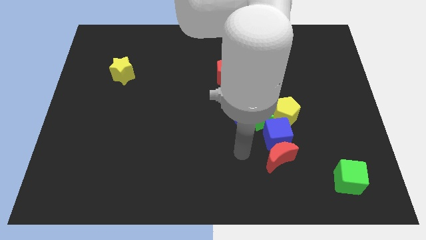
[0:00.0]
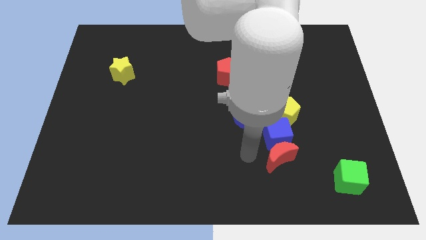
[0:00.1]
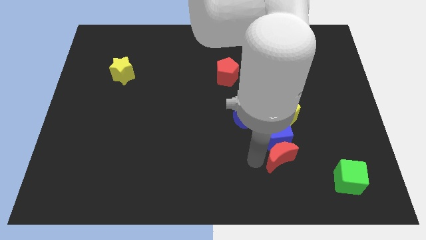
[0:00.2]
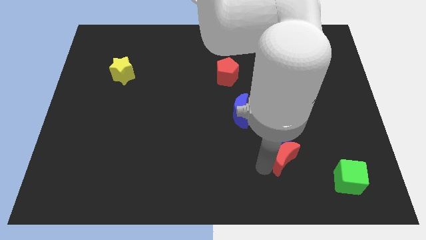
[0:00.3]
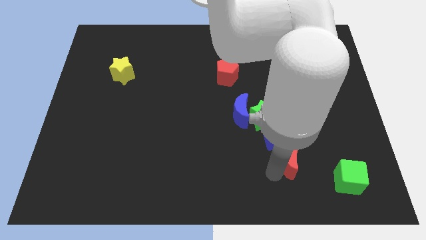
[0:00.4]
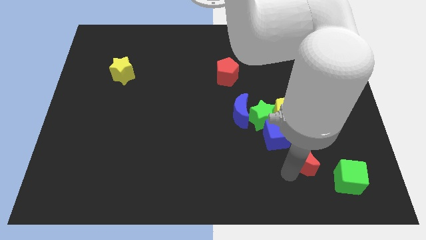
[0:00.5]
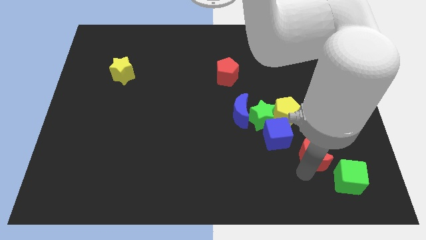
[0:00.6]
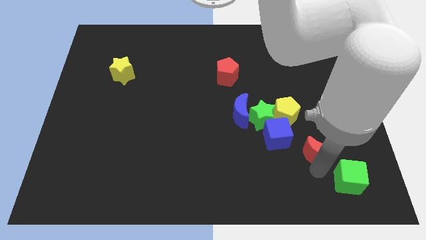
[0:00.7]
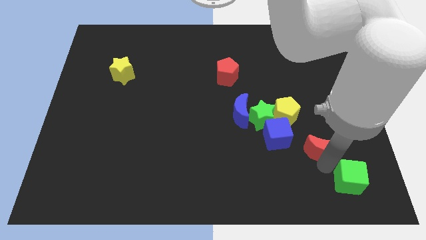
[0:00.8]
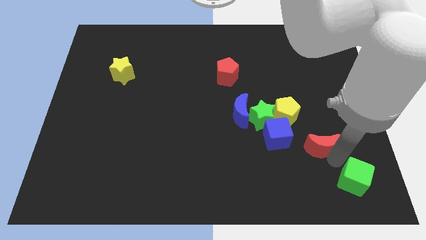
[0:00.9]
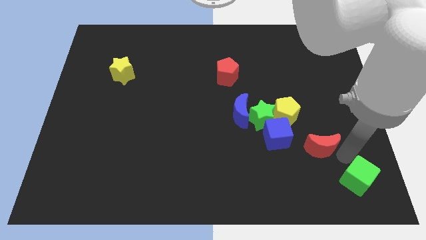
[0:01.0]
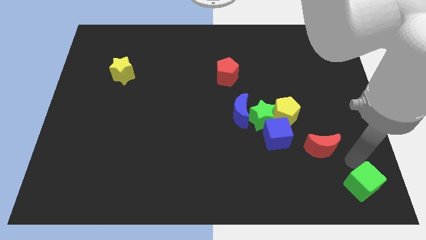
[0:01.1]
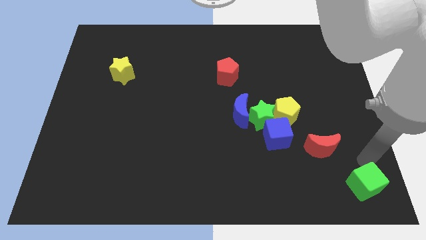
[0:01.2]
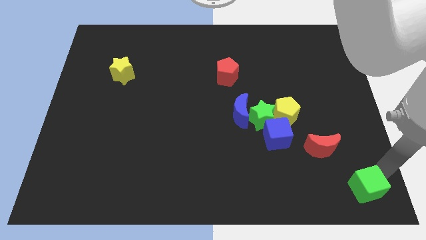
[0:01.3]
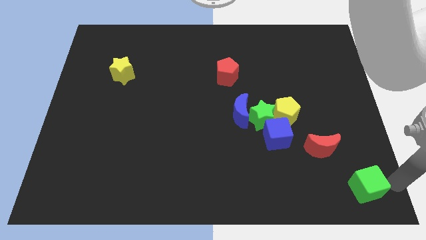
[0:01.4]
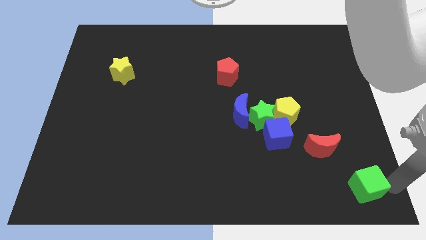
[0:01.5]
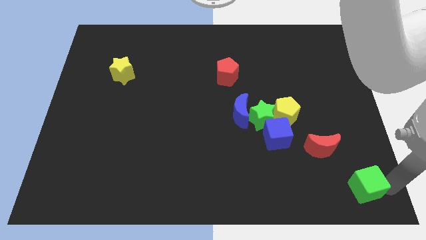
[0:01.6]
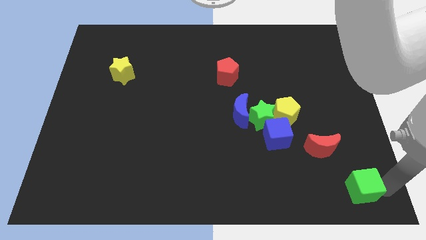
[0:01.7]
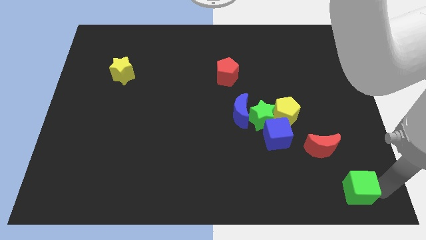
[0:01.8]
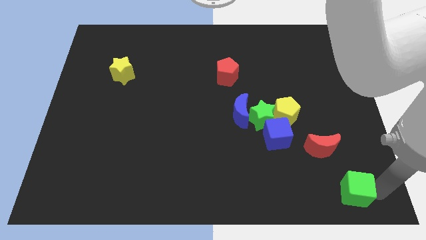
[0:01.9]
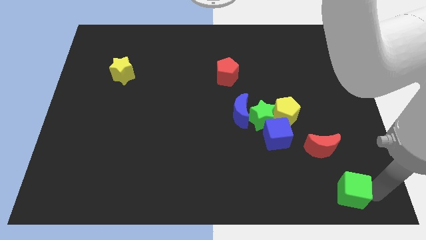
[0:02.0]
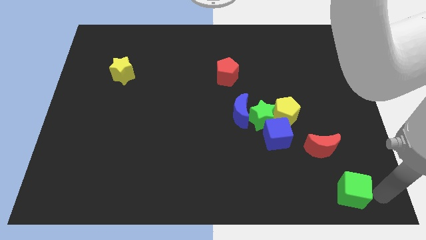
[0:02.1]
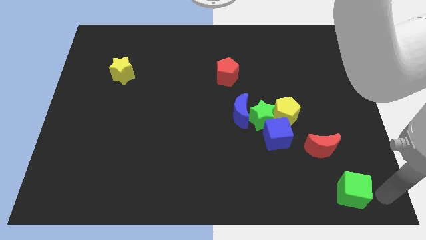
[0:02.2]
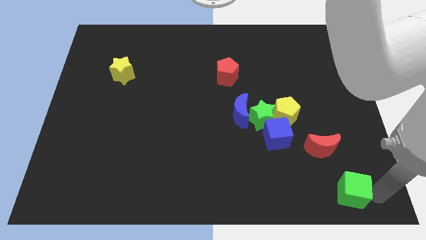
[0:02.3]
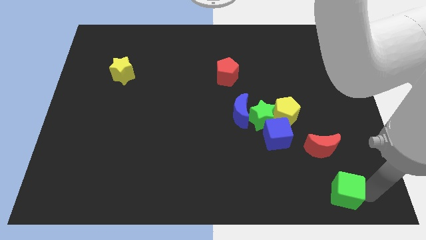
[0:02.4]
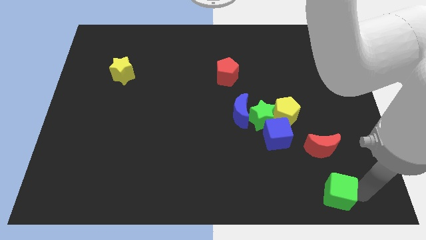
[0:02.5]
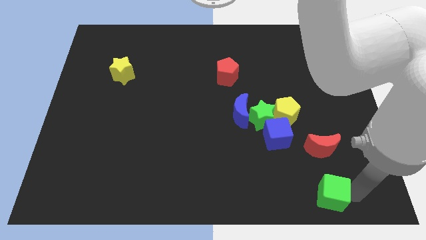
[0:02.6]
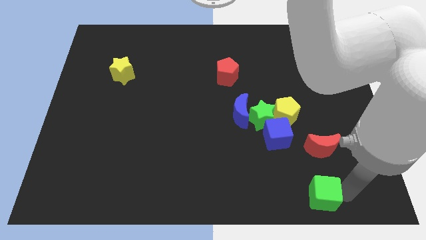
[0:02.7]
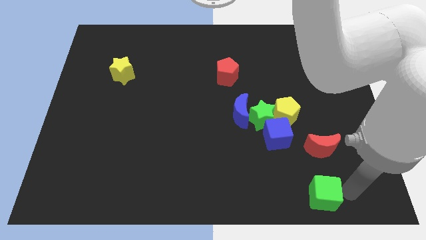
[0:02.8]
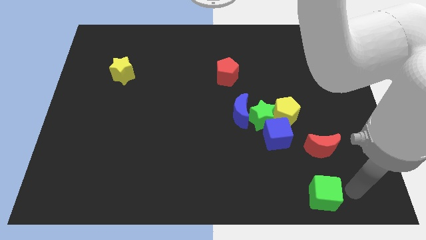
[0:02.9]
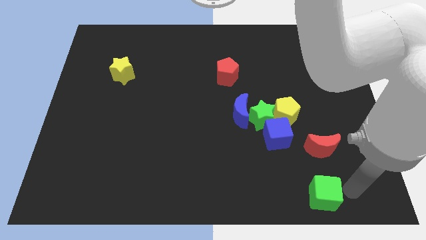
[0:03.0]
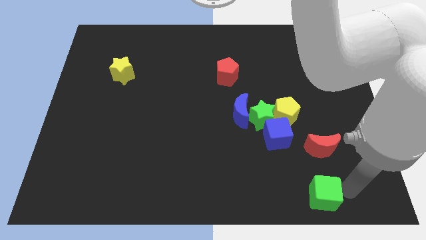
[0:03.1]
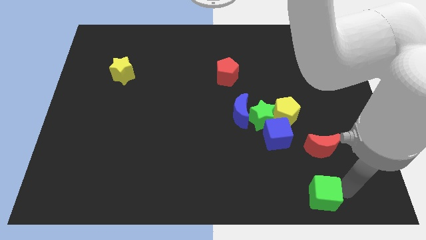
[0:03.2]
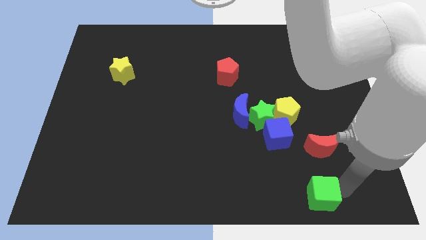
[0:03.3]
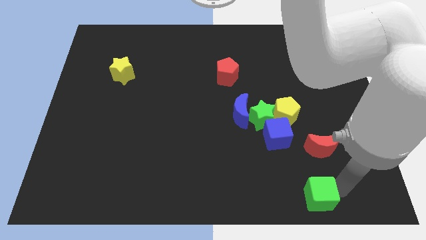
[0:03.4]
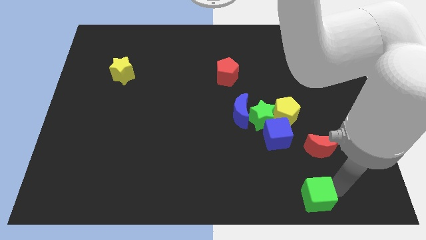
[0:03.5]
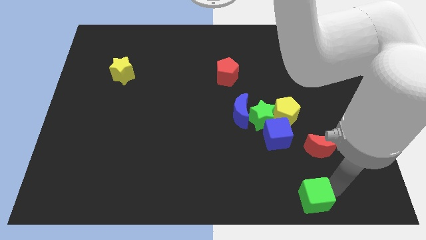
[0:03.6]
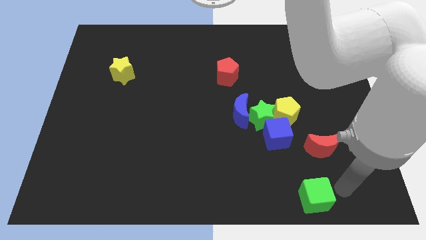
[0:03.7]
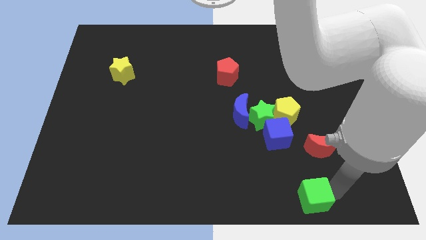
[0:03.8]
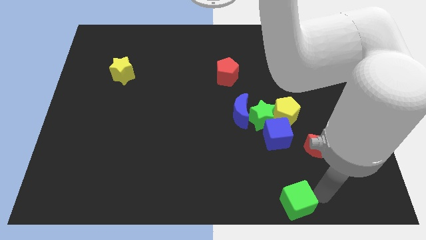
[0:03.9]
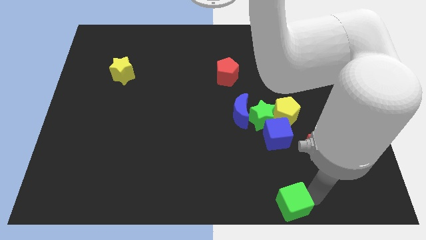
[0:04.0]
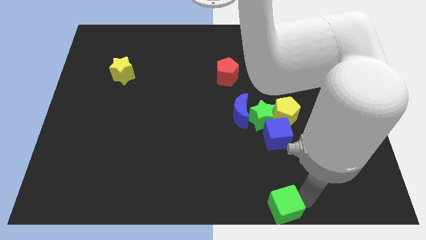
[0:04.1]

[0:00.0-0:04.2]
slide the green cube to the bottom

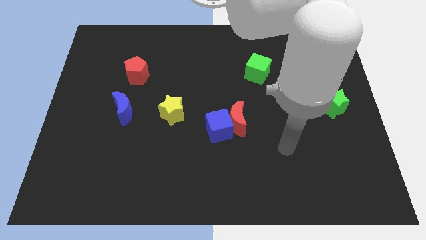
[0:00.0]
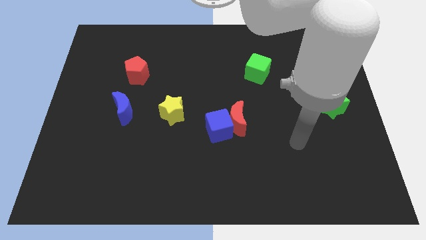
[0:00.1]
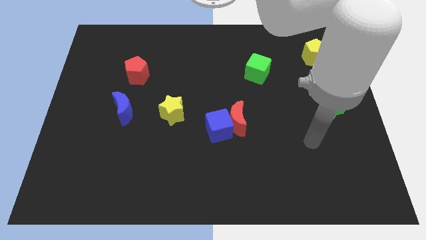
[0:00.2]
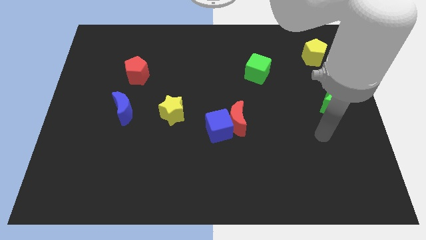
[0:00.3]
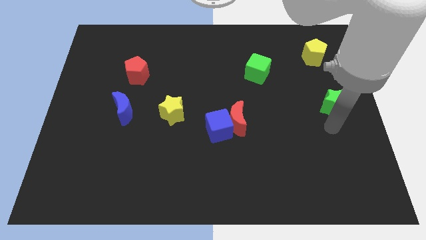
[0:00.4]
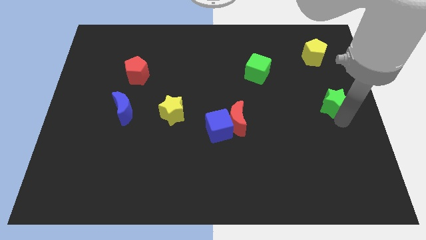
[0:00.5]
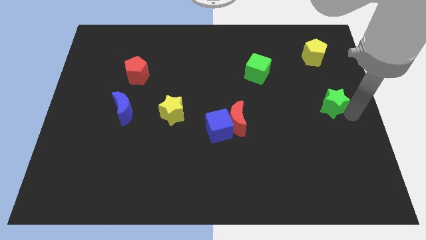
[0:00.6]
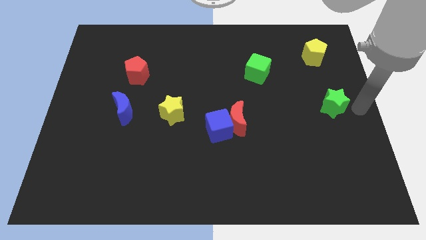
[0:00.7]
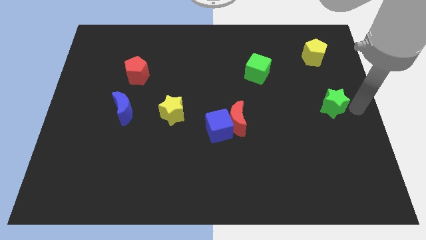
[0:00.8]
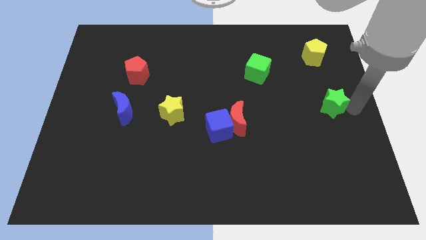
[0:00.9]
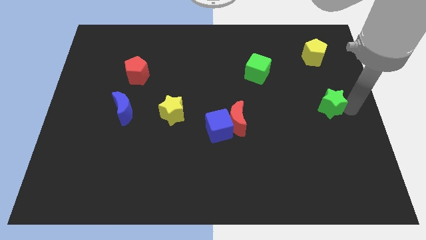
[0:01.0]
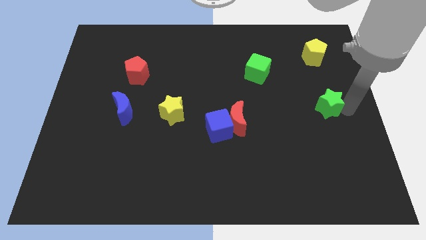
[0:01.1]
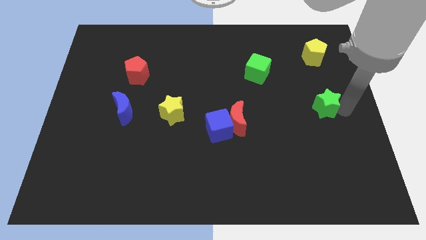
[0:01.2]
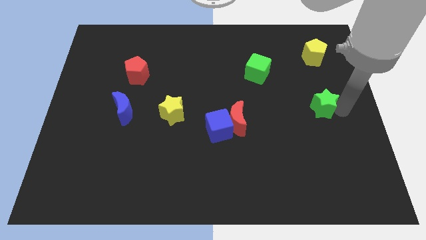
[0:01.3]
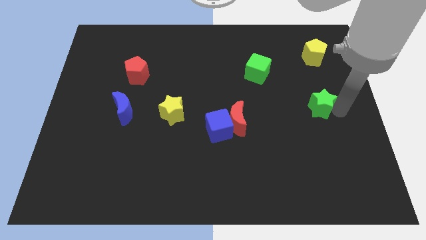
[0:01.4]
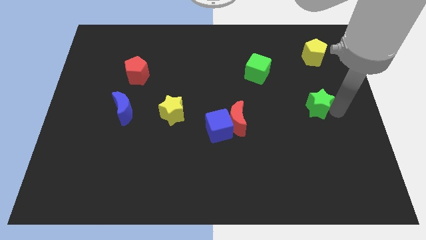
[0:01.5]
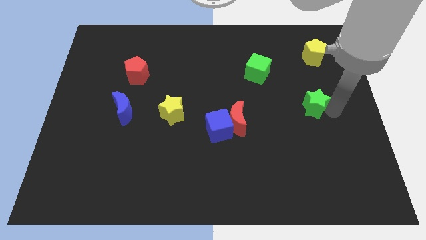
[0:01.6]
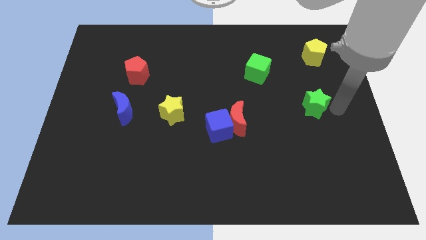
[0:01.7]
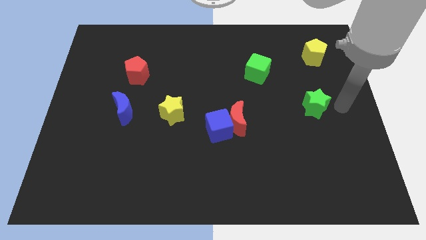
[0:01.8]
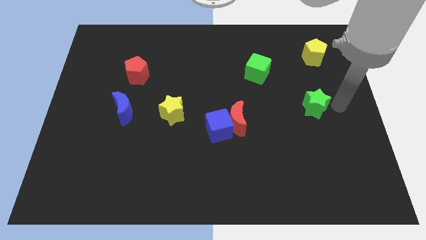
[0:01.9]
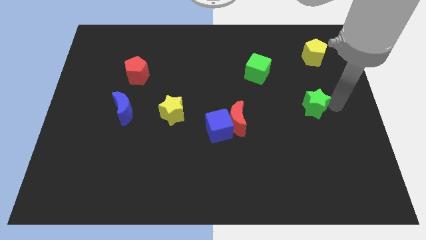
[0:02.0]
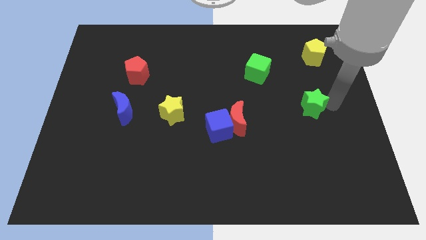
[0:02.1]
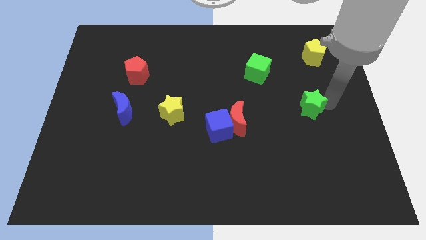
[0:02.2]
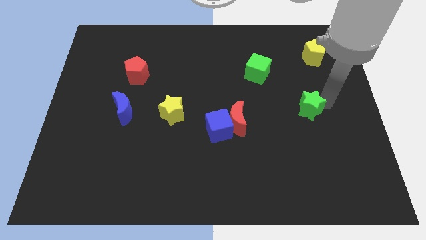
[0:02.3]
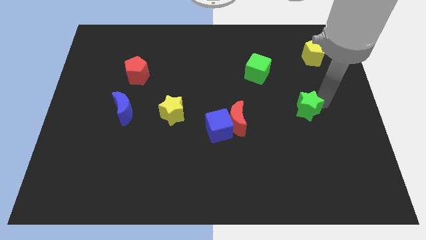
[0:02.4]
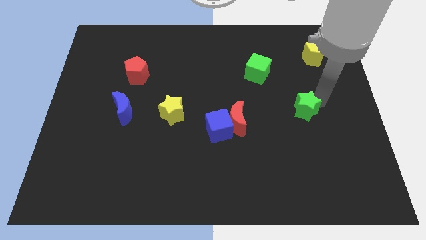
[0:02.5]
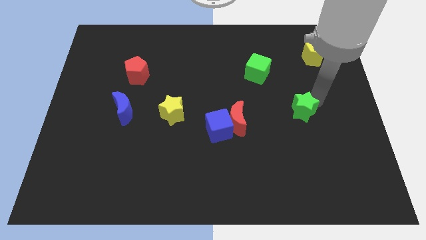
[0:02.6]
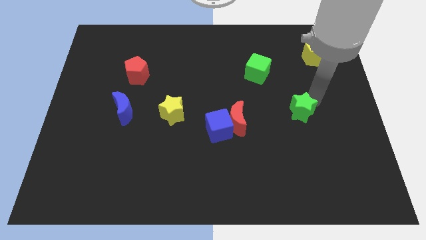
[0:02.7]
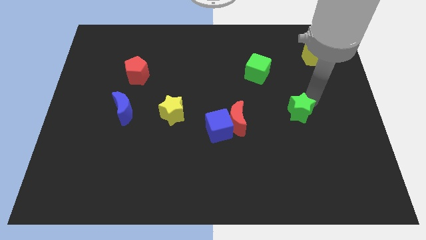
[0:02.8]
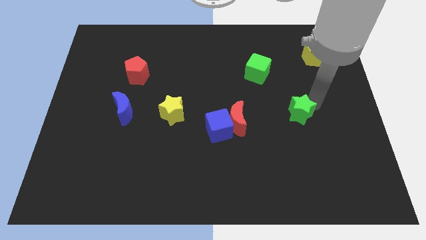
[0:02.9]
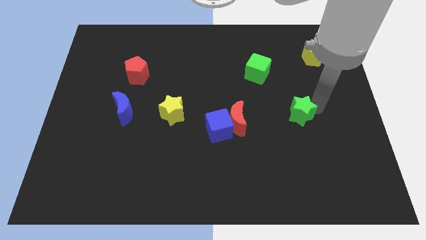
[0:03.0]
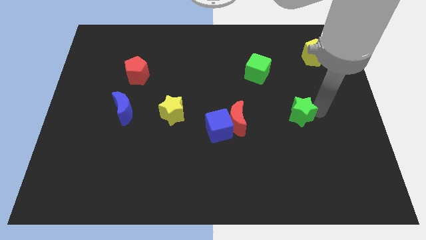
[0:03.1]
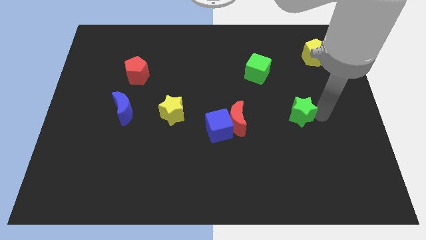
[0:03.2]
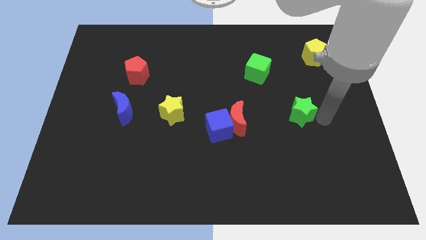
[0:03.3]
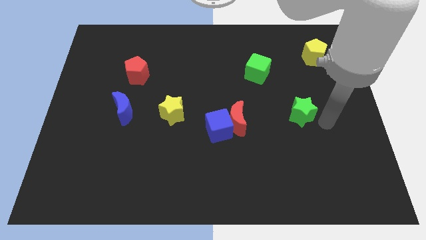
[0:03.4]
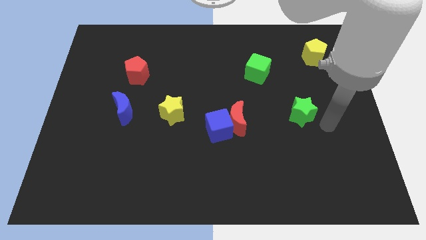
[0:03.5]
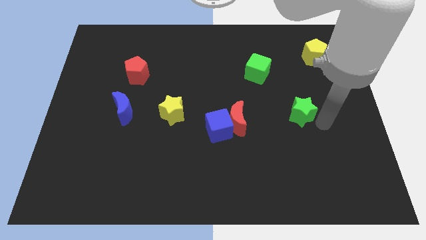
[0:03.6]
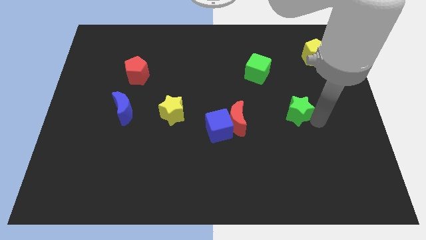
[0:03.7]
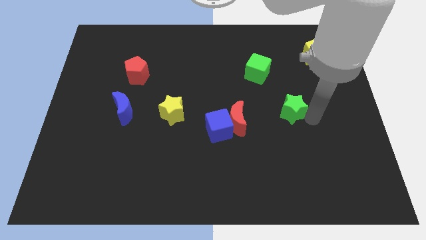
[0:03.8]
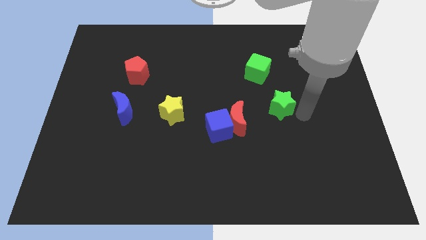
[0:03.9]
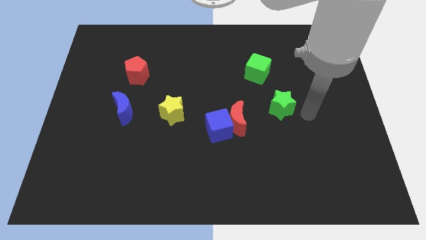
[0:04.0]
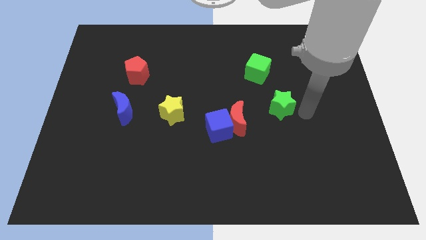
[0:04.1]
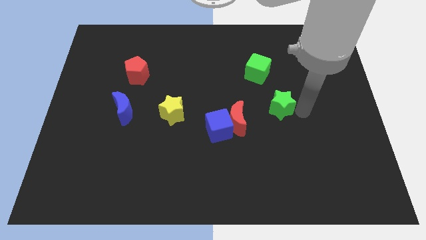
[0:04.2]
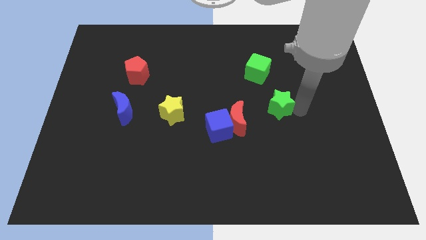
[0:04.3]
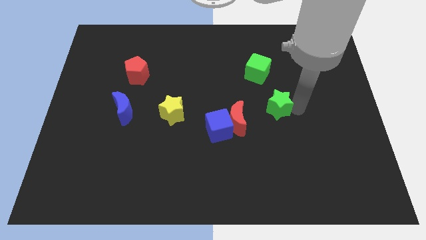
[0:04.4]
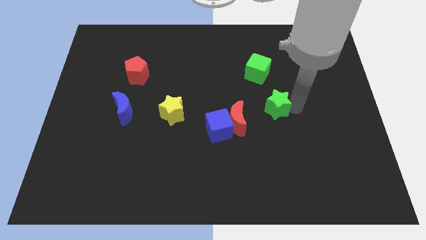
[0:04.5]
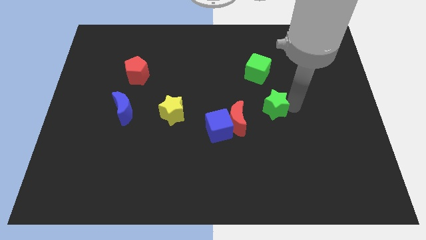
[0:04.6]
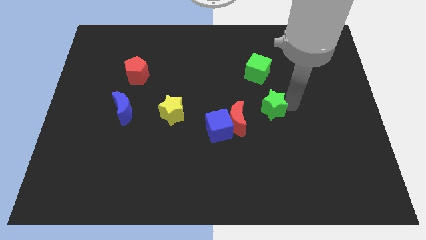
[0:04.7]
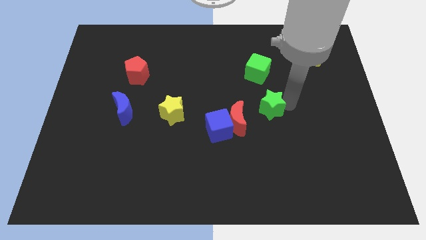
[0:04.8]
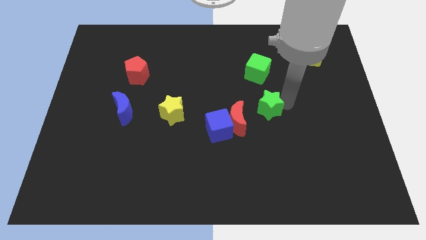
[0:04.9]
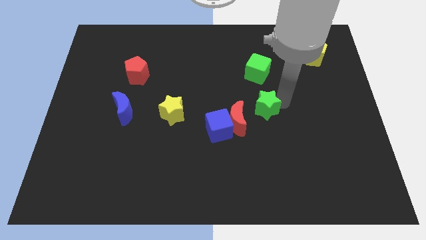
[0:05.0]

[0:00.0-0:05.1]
slide the green star to the center
